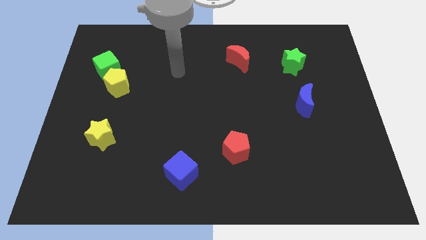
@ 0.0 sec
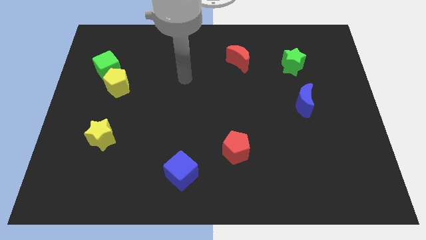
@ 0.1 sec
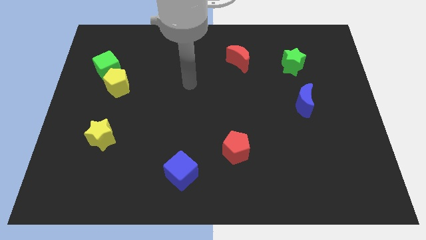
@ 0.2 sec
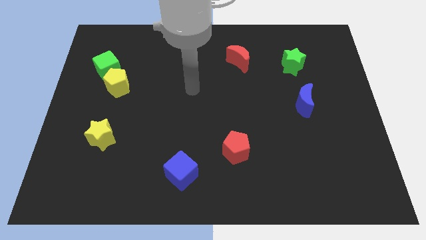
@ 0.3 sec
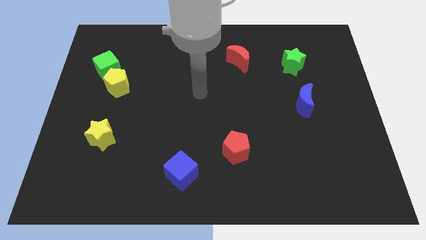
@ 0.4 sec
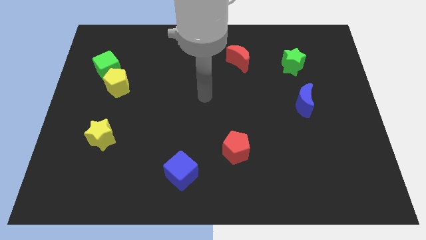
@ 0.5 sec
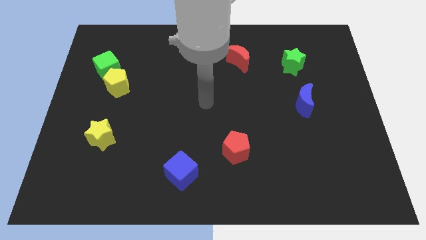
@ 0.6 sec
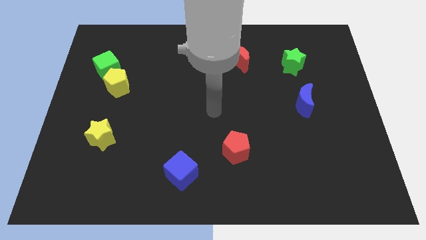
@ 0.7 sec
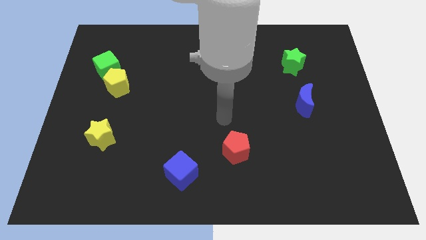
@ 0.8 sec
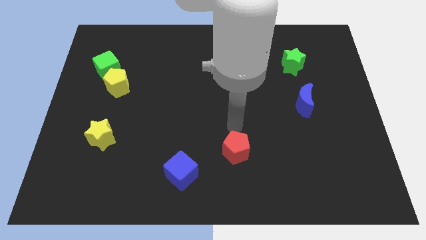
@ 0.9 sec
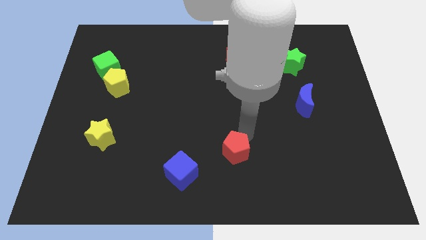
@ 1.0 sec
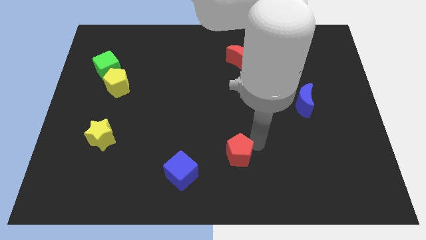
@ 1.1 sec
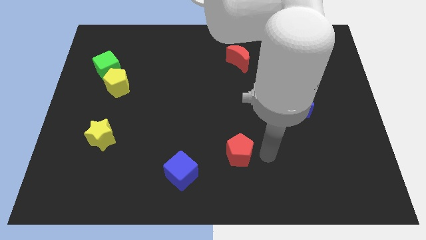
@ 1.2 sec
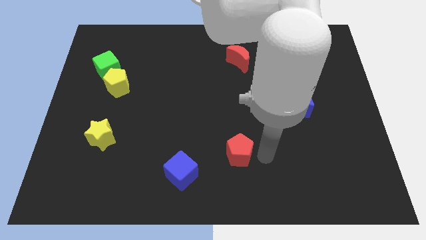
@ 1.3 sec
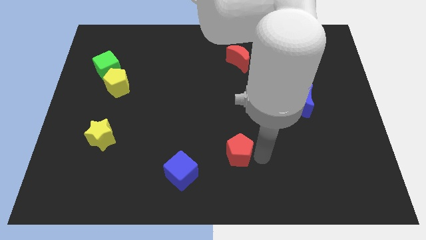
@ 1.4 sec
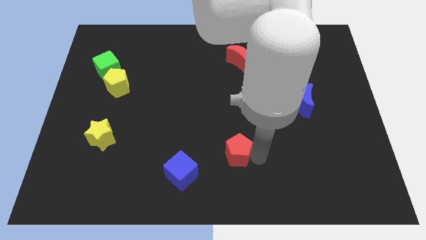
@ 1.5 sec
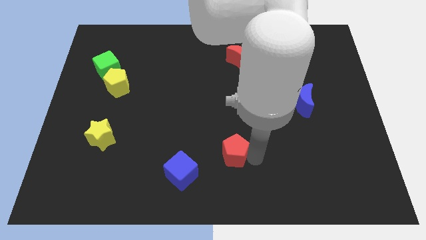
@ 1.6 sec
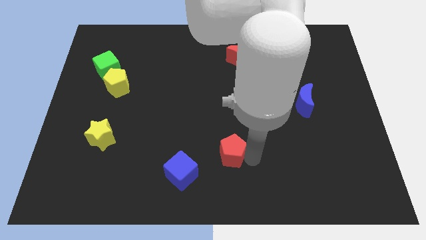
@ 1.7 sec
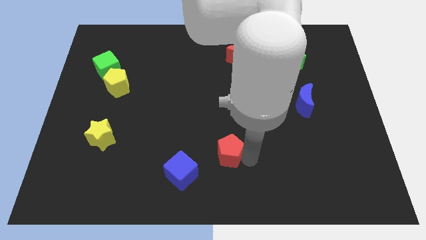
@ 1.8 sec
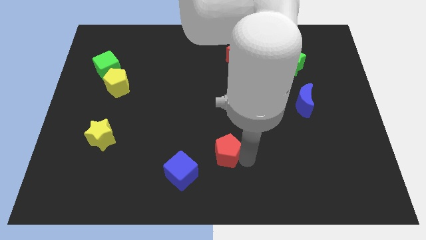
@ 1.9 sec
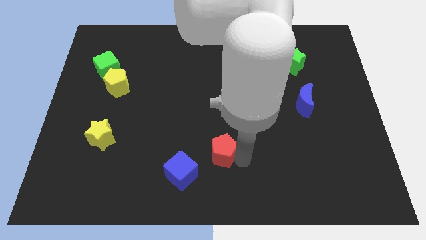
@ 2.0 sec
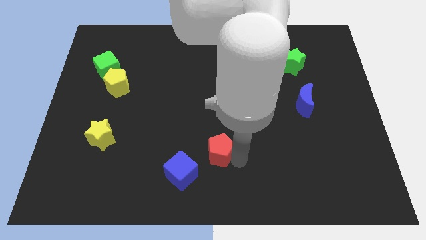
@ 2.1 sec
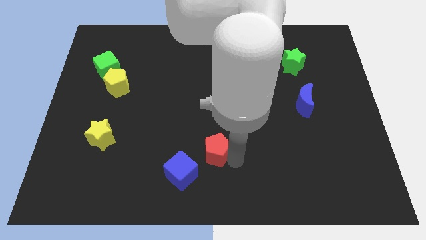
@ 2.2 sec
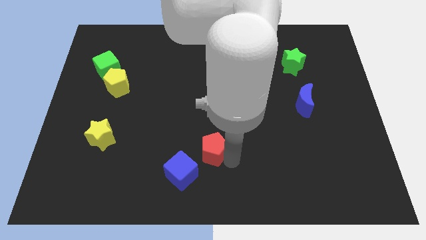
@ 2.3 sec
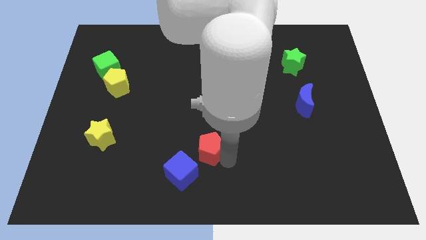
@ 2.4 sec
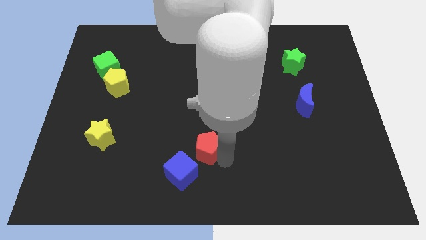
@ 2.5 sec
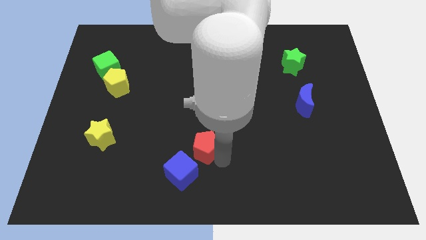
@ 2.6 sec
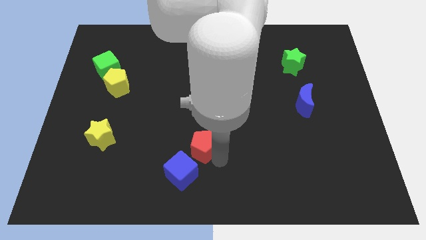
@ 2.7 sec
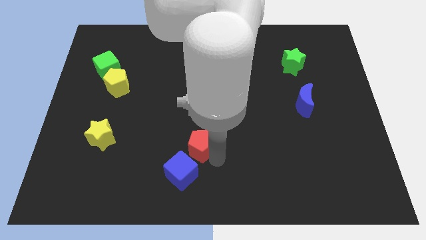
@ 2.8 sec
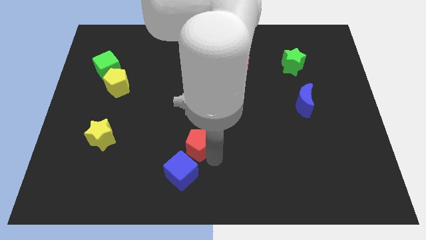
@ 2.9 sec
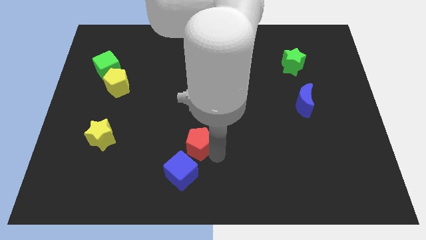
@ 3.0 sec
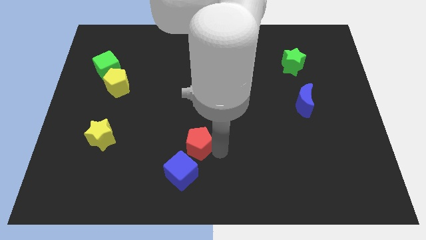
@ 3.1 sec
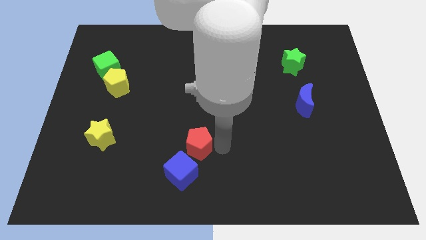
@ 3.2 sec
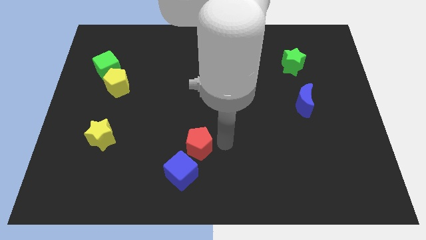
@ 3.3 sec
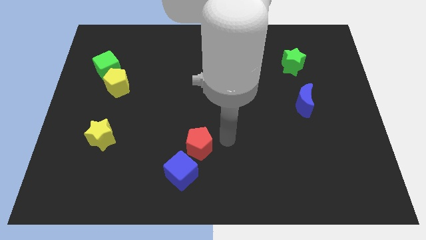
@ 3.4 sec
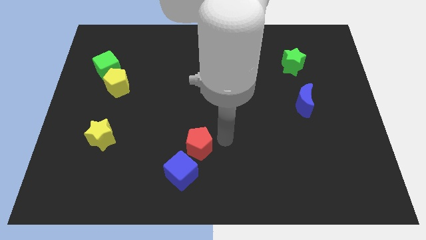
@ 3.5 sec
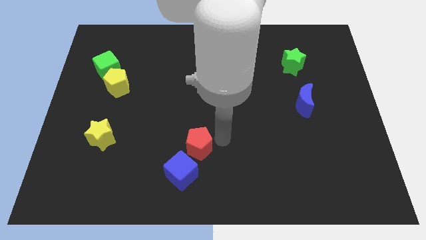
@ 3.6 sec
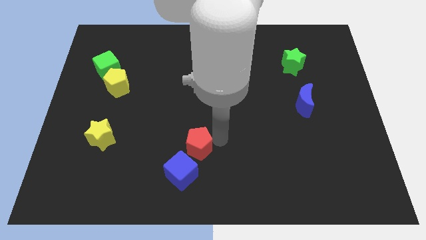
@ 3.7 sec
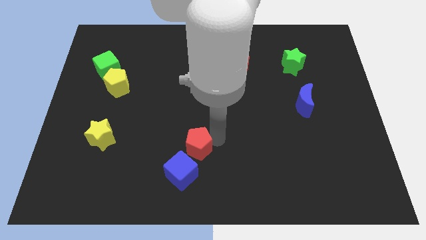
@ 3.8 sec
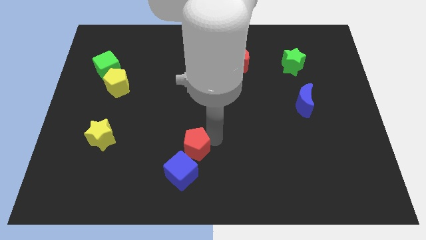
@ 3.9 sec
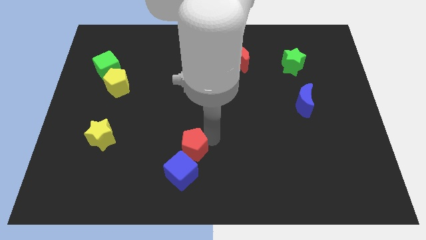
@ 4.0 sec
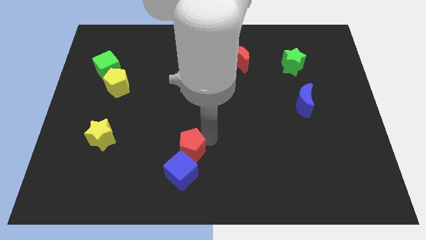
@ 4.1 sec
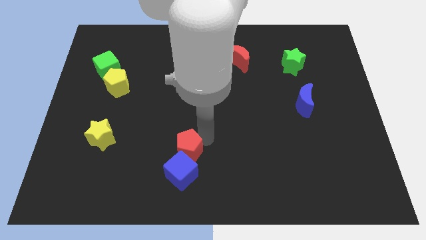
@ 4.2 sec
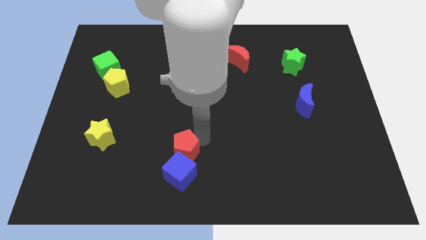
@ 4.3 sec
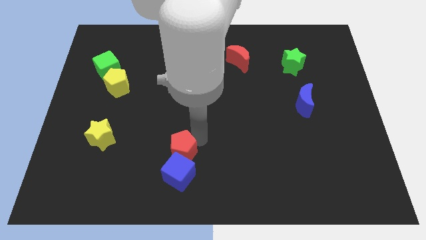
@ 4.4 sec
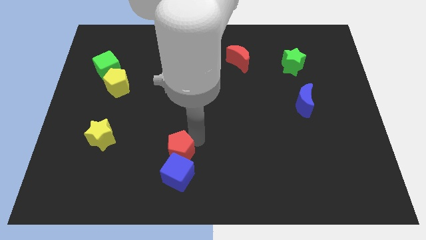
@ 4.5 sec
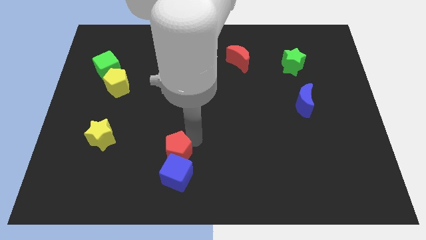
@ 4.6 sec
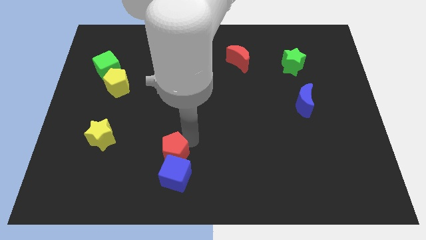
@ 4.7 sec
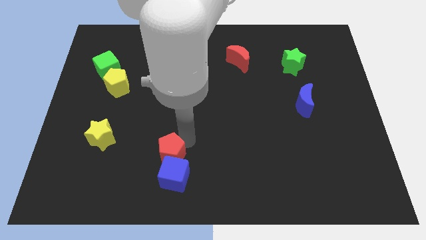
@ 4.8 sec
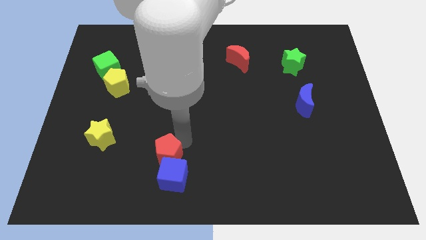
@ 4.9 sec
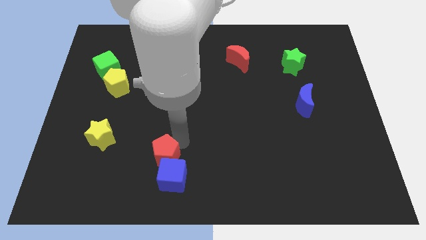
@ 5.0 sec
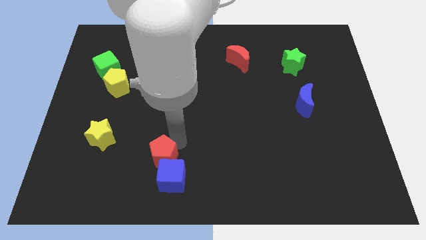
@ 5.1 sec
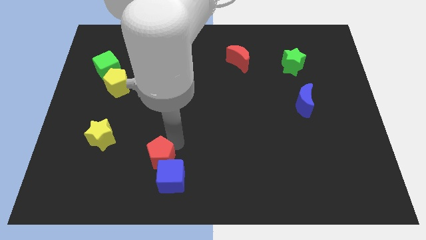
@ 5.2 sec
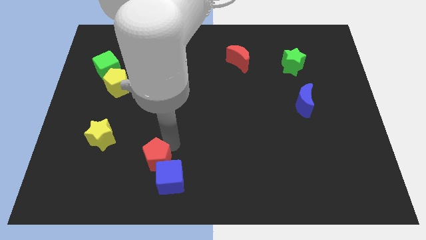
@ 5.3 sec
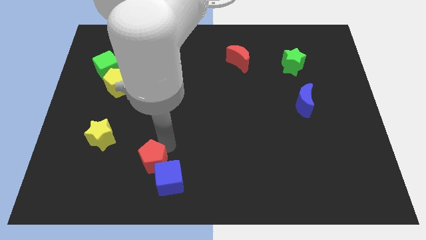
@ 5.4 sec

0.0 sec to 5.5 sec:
push the red pentagon to the left of the blue cube

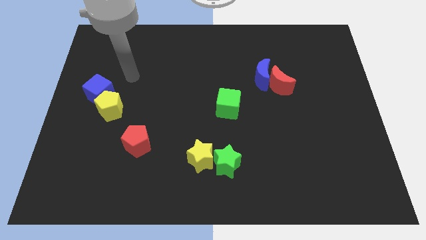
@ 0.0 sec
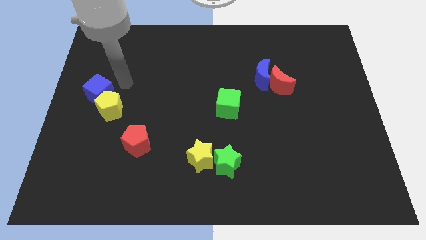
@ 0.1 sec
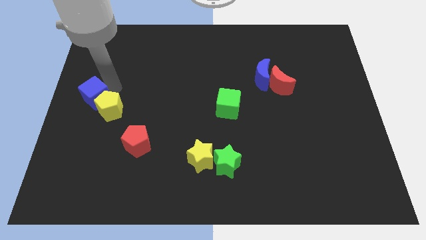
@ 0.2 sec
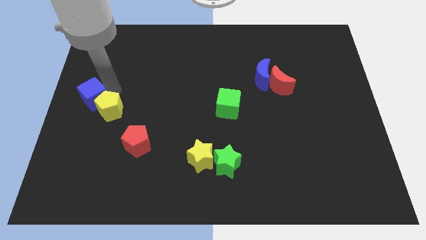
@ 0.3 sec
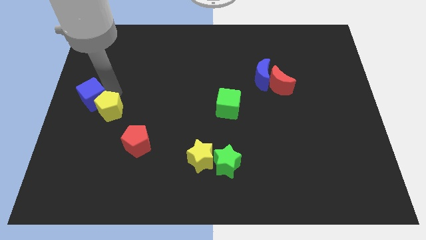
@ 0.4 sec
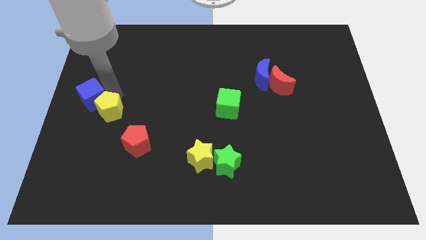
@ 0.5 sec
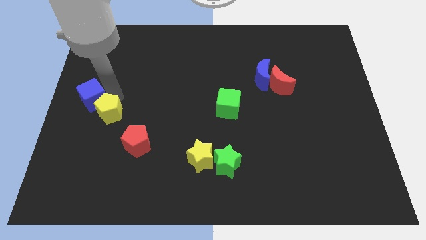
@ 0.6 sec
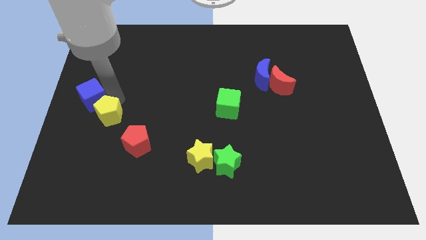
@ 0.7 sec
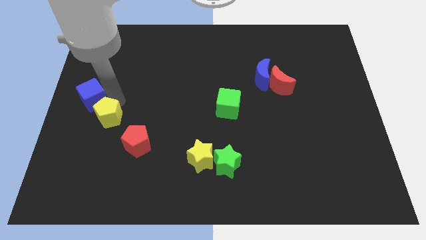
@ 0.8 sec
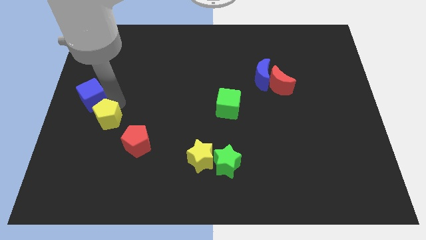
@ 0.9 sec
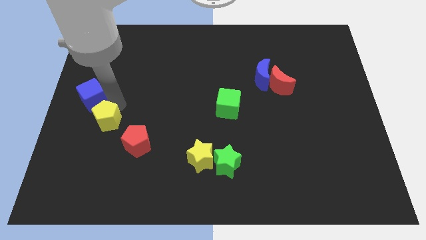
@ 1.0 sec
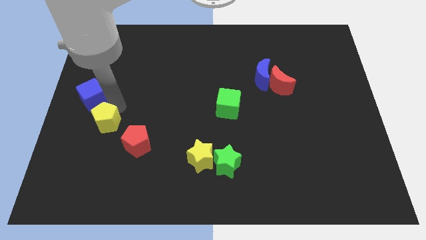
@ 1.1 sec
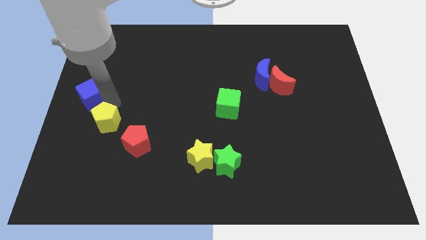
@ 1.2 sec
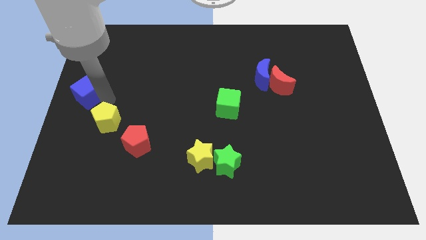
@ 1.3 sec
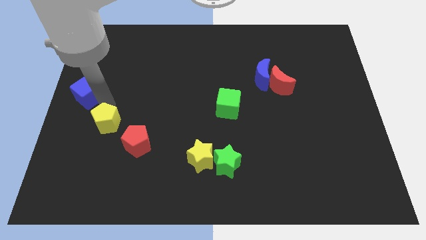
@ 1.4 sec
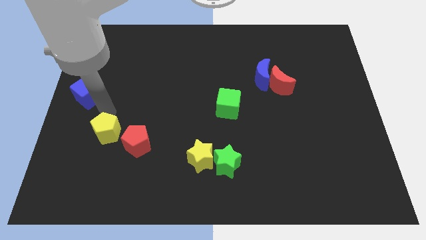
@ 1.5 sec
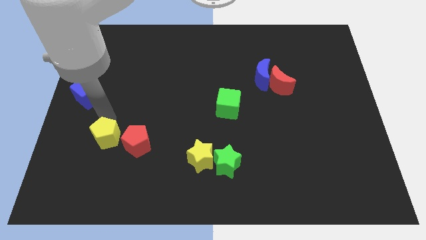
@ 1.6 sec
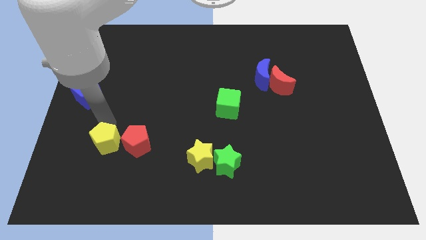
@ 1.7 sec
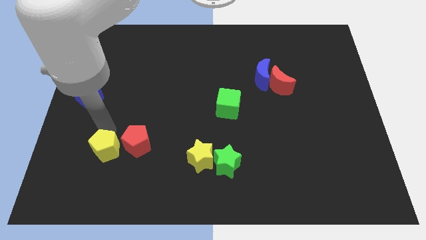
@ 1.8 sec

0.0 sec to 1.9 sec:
put the yellow pentagon to the bottom left of the red pentagon

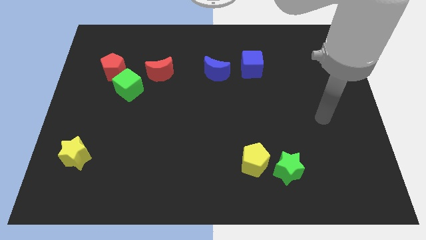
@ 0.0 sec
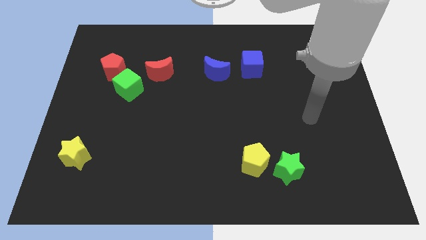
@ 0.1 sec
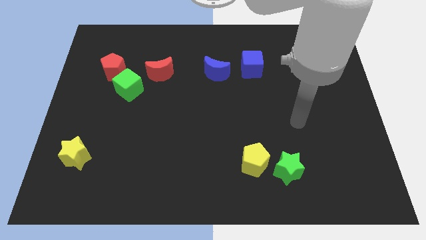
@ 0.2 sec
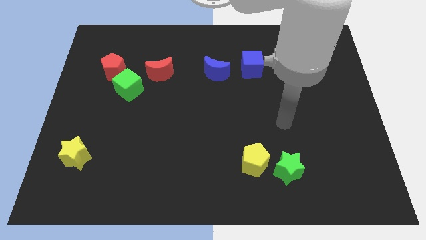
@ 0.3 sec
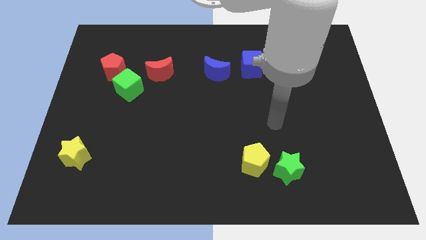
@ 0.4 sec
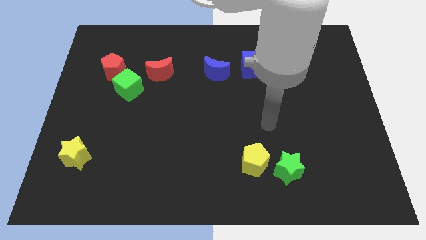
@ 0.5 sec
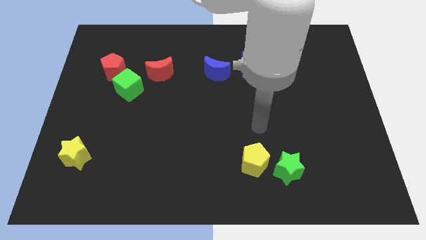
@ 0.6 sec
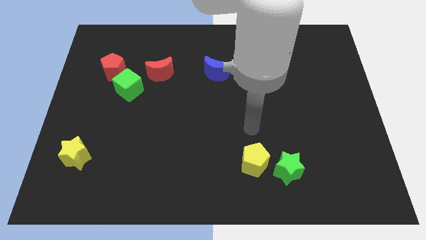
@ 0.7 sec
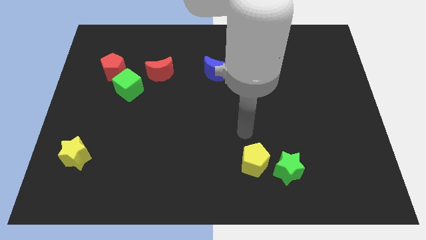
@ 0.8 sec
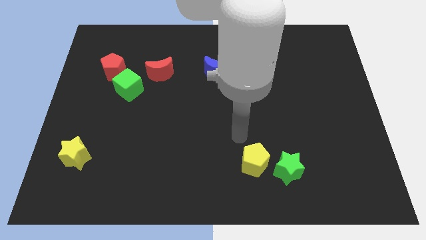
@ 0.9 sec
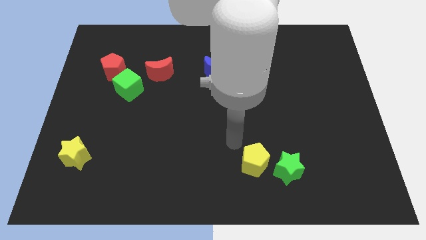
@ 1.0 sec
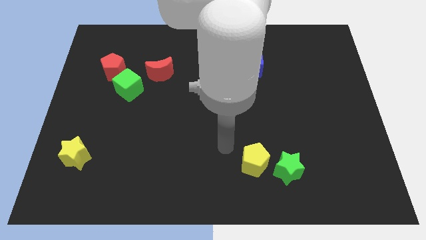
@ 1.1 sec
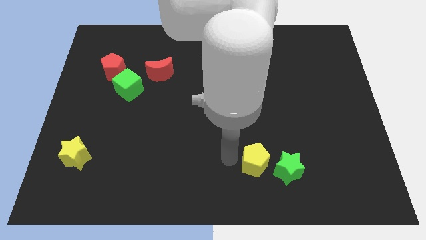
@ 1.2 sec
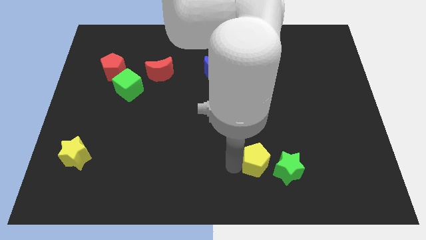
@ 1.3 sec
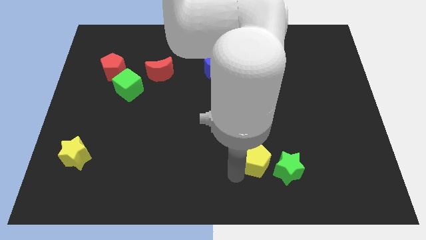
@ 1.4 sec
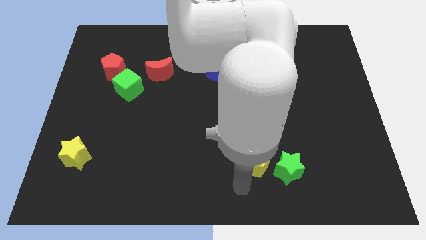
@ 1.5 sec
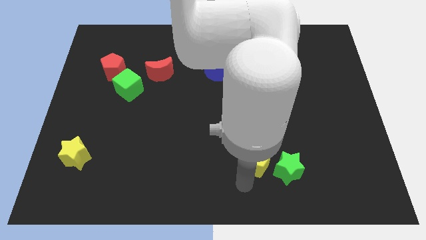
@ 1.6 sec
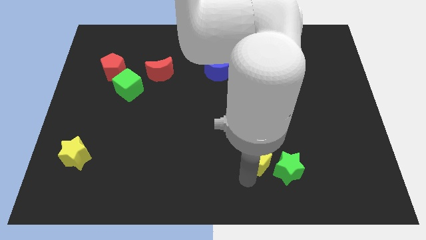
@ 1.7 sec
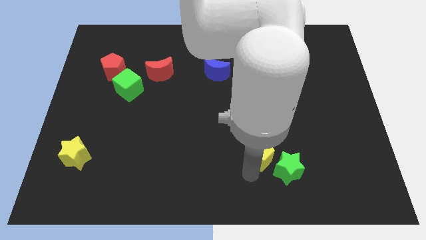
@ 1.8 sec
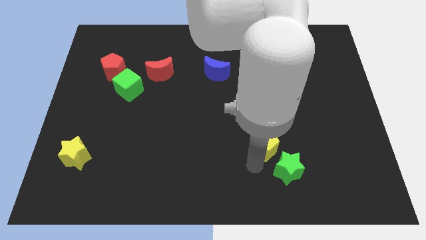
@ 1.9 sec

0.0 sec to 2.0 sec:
push the yellow pentagon to the top side of the green star
